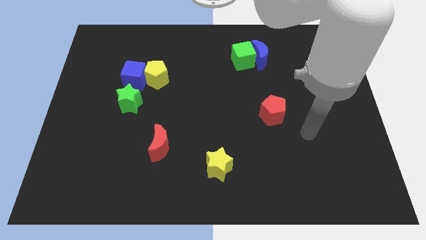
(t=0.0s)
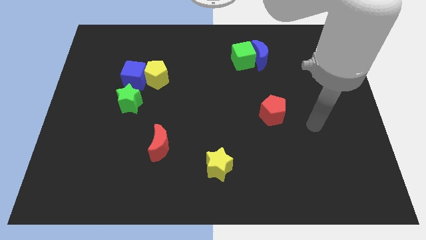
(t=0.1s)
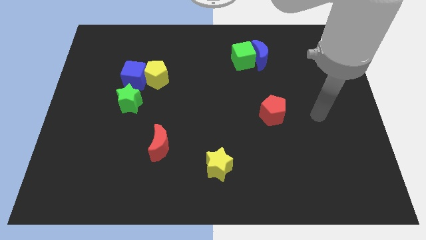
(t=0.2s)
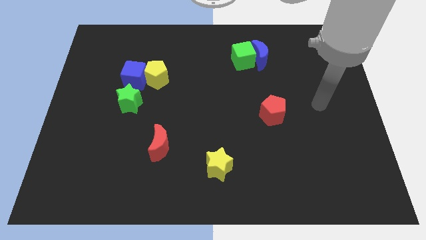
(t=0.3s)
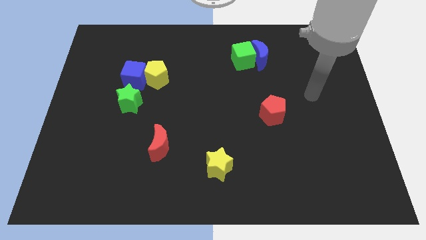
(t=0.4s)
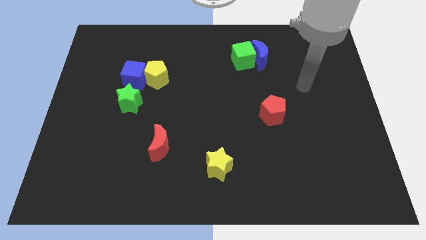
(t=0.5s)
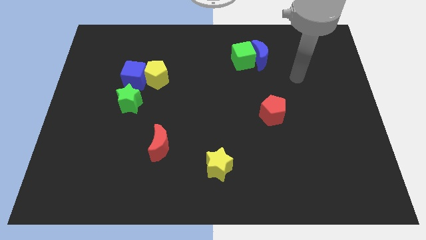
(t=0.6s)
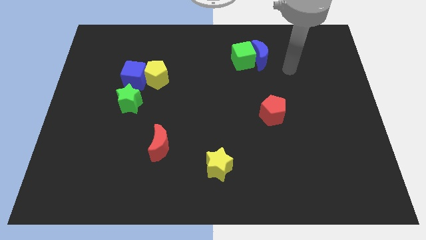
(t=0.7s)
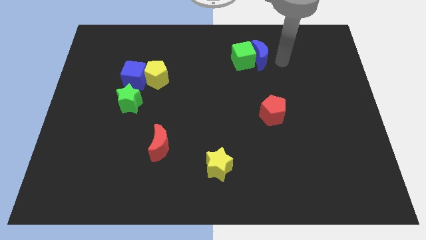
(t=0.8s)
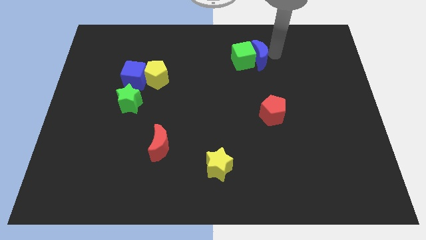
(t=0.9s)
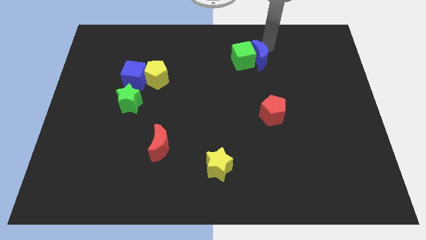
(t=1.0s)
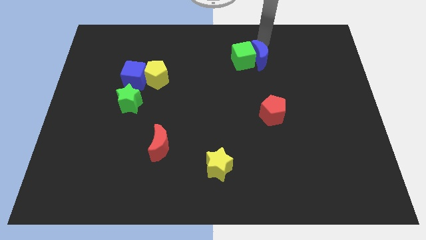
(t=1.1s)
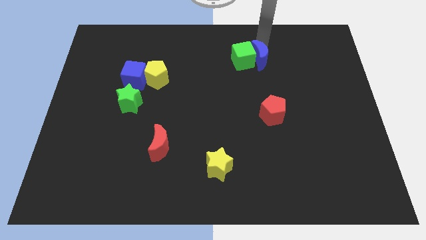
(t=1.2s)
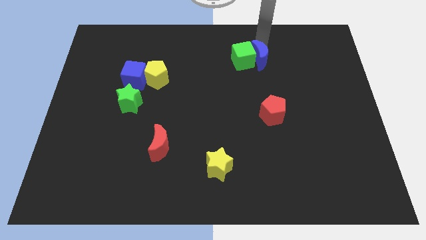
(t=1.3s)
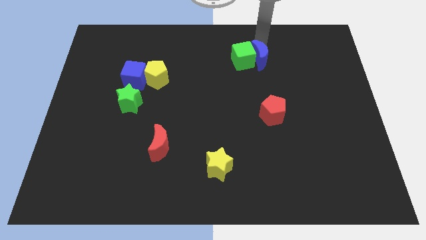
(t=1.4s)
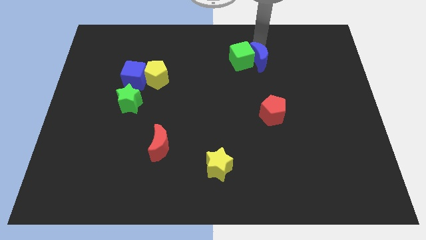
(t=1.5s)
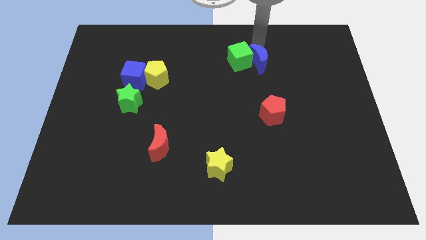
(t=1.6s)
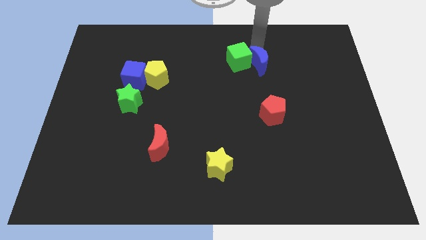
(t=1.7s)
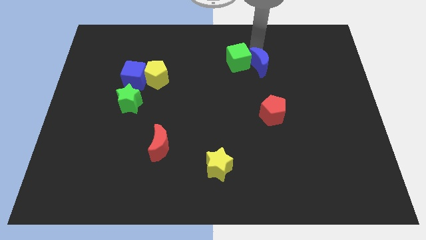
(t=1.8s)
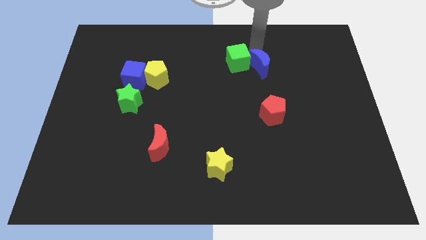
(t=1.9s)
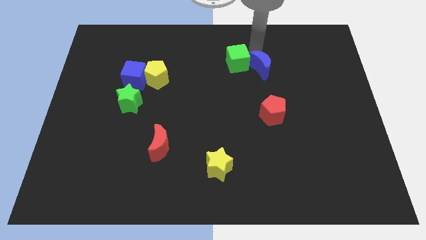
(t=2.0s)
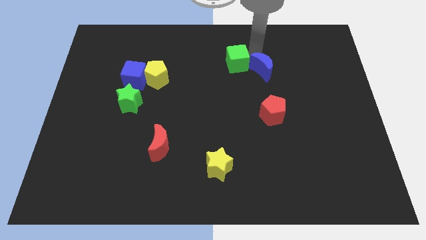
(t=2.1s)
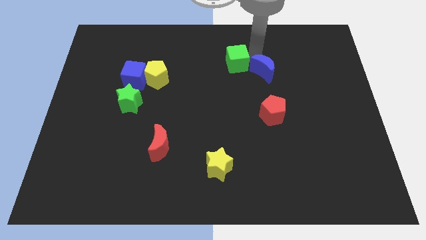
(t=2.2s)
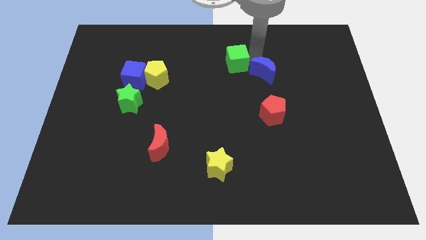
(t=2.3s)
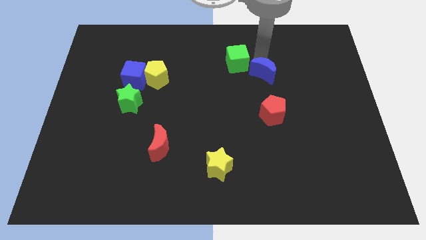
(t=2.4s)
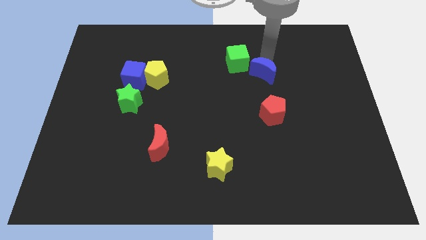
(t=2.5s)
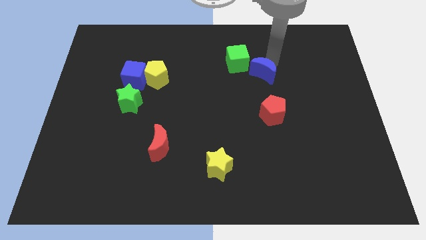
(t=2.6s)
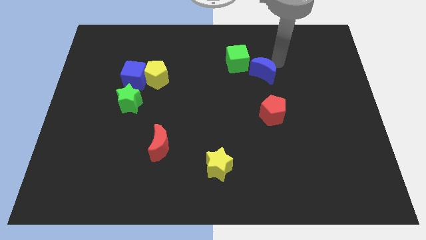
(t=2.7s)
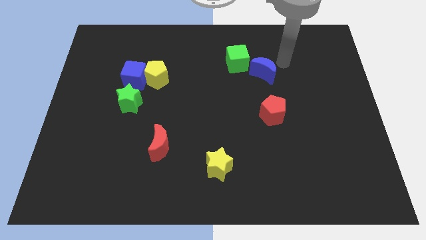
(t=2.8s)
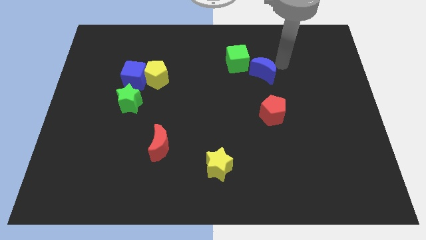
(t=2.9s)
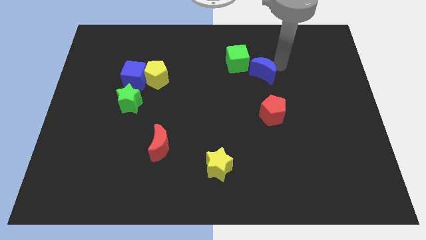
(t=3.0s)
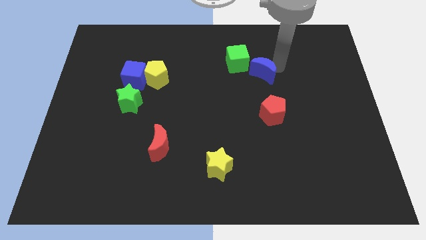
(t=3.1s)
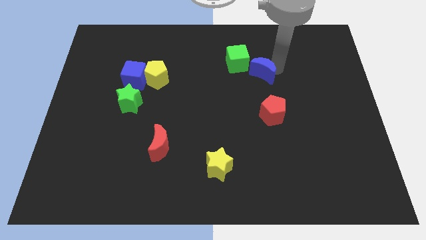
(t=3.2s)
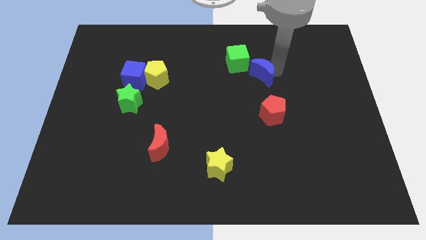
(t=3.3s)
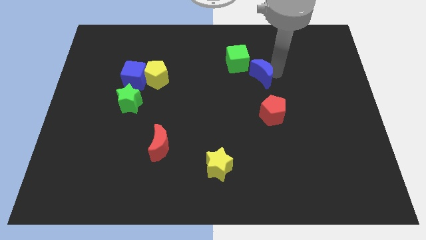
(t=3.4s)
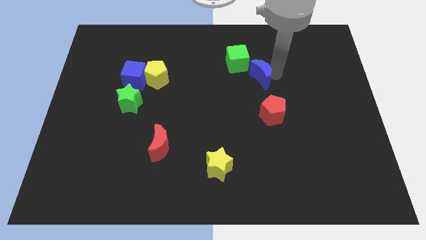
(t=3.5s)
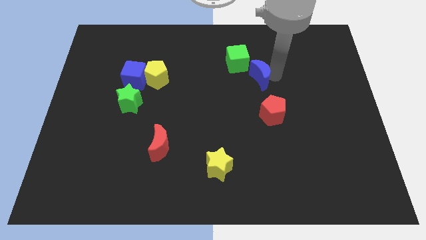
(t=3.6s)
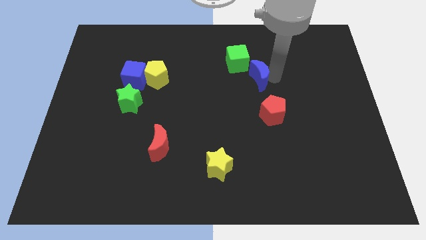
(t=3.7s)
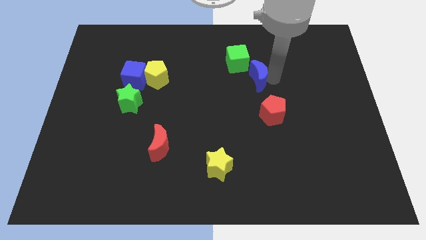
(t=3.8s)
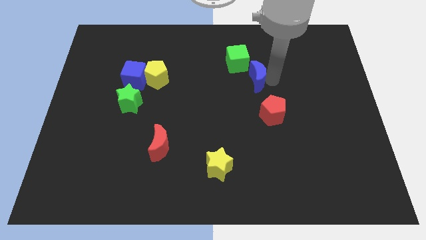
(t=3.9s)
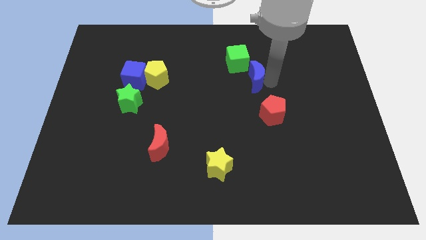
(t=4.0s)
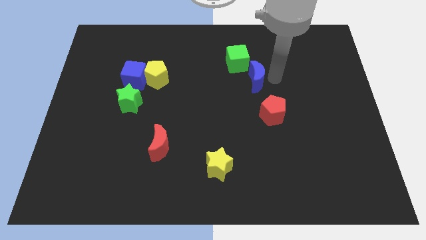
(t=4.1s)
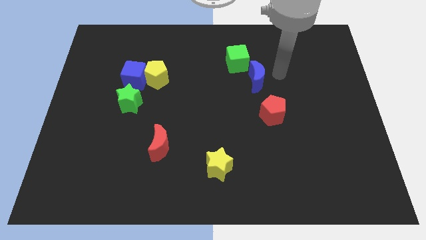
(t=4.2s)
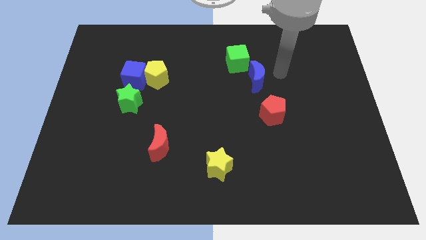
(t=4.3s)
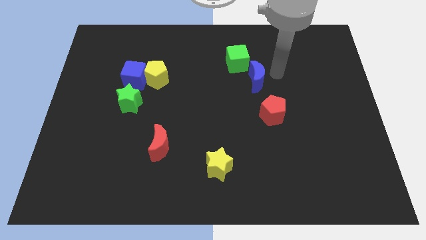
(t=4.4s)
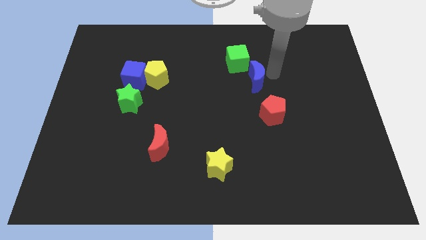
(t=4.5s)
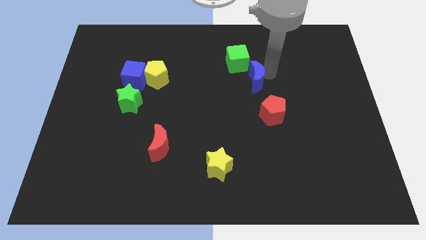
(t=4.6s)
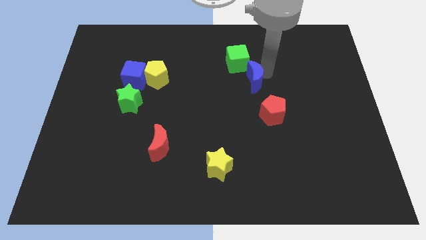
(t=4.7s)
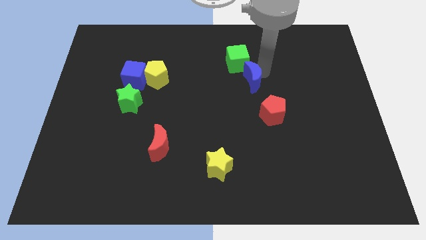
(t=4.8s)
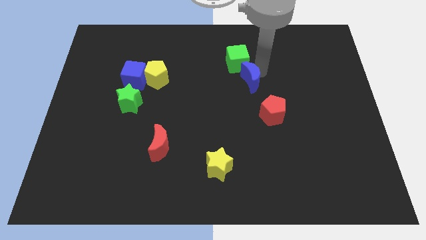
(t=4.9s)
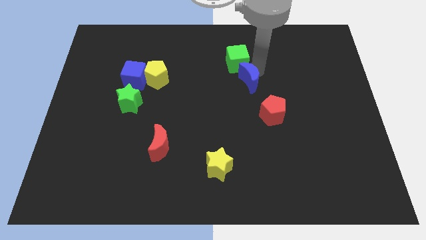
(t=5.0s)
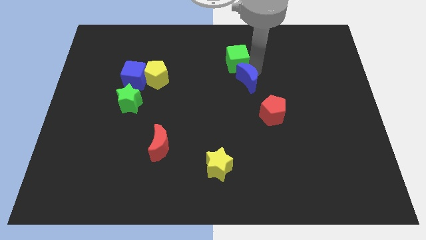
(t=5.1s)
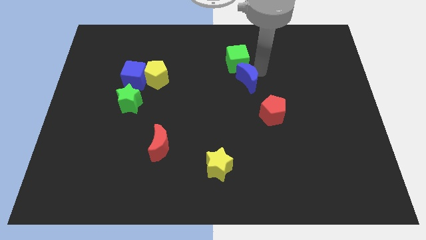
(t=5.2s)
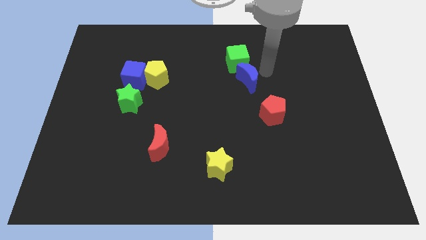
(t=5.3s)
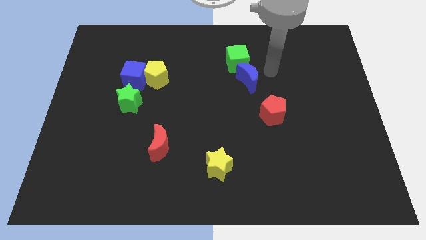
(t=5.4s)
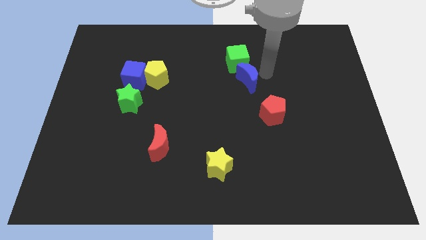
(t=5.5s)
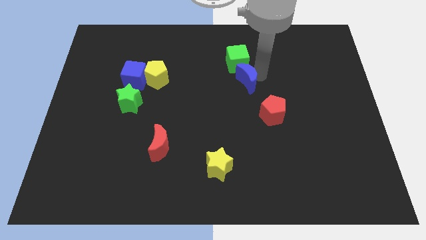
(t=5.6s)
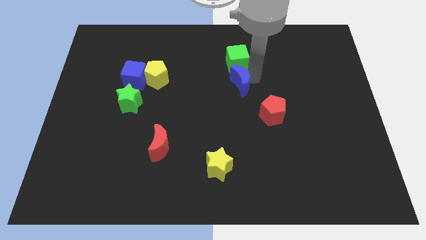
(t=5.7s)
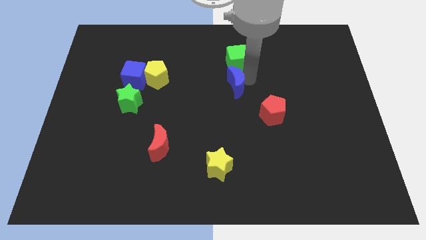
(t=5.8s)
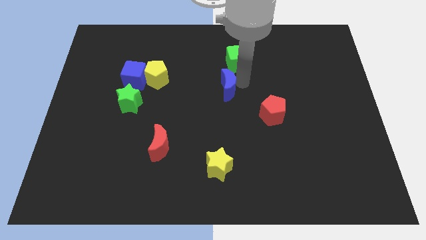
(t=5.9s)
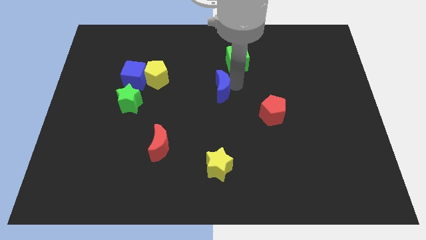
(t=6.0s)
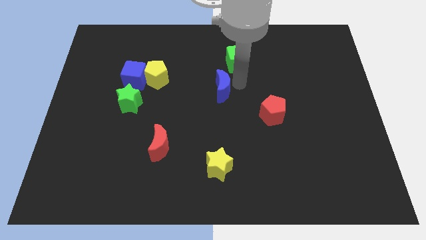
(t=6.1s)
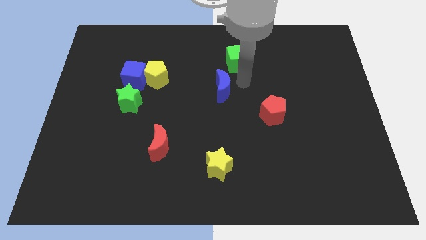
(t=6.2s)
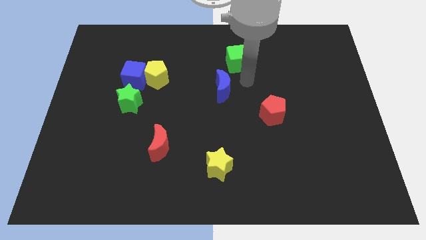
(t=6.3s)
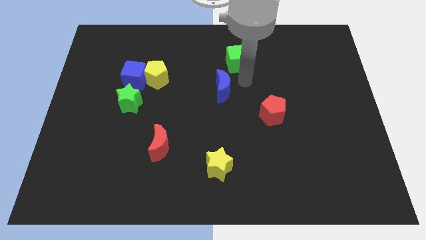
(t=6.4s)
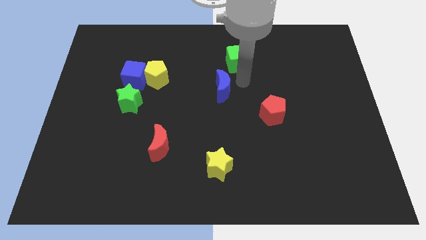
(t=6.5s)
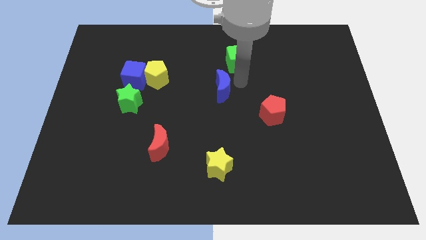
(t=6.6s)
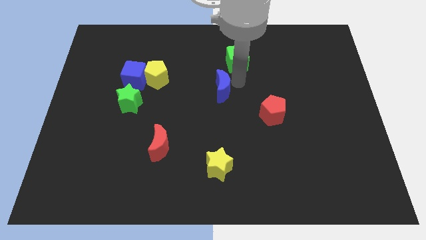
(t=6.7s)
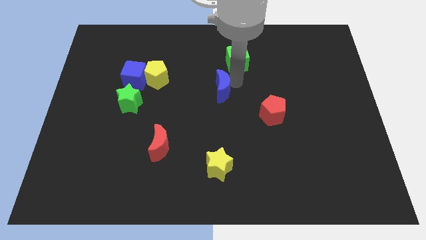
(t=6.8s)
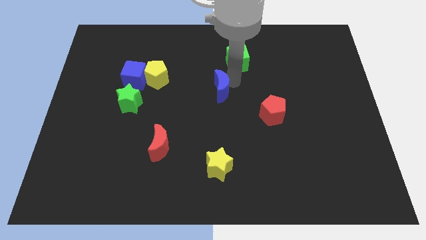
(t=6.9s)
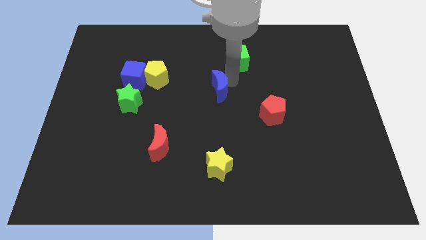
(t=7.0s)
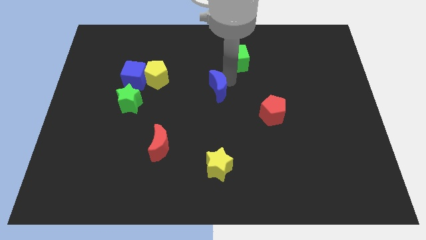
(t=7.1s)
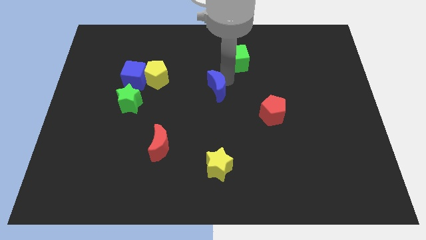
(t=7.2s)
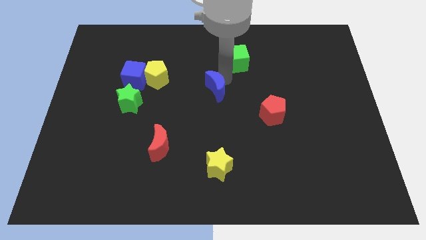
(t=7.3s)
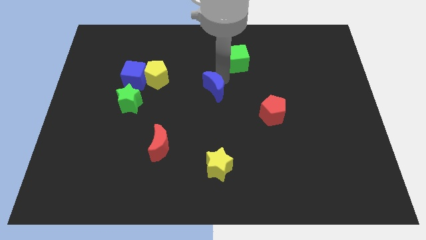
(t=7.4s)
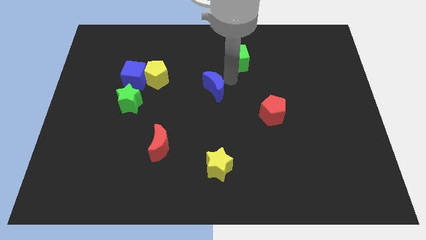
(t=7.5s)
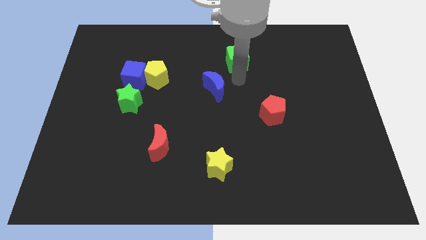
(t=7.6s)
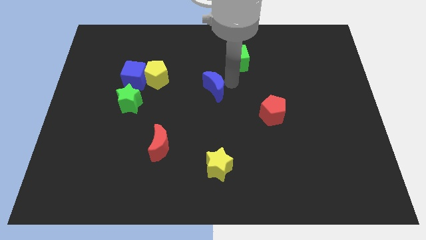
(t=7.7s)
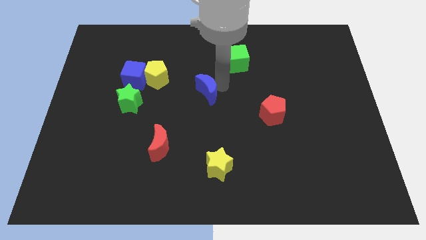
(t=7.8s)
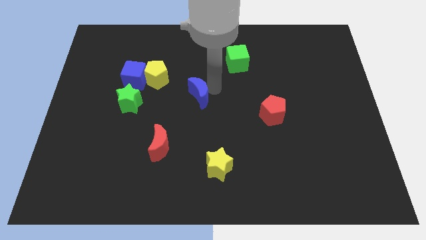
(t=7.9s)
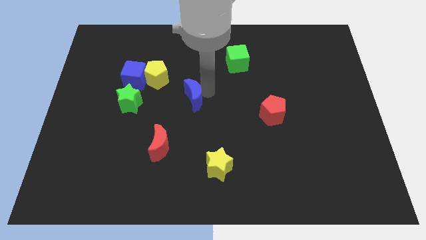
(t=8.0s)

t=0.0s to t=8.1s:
push the blue moon right of the green star
